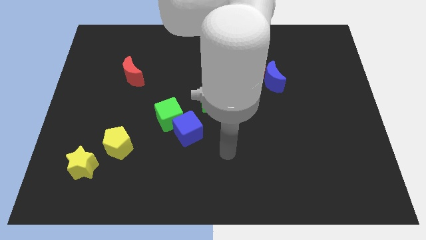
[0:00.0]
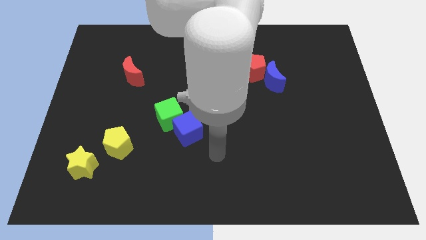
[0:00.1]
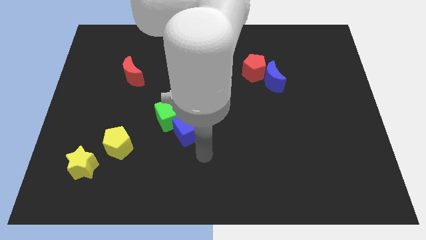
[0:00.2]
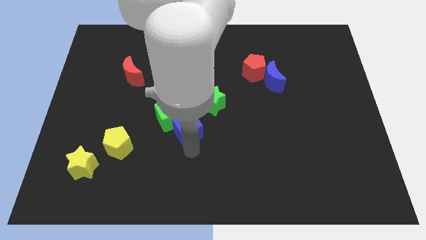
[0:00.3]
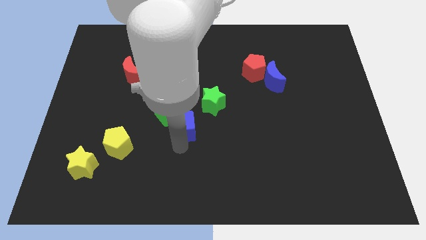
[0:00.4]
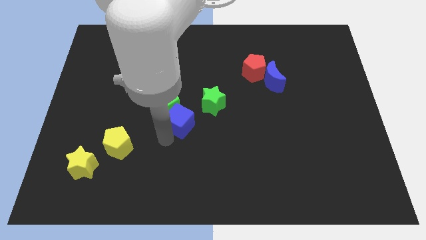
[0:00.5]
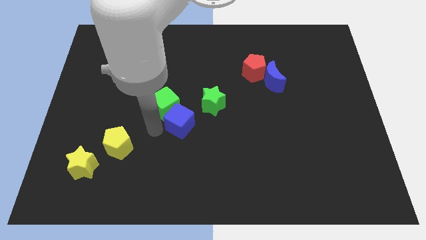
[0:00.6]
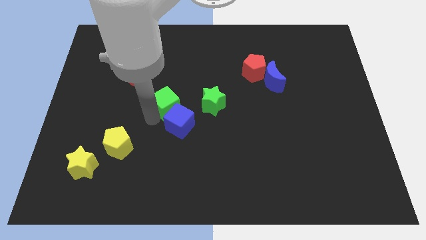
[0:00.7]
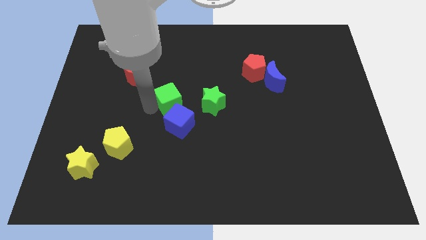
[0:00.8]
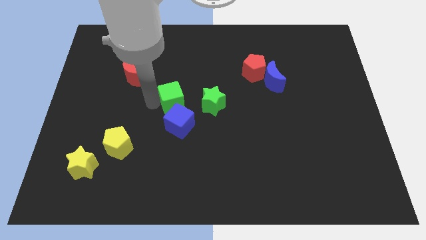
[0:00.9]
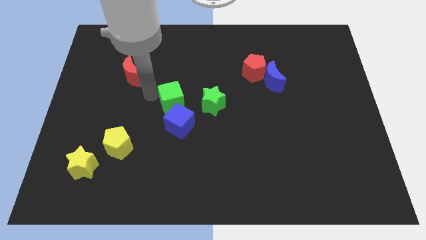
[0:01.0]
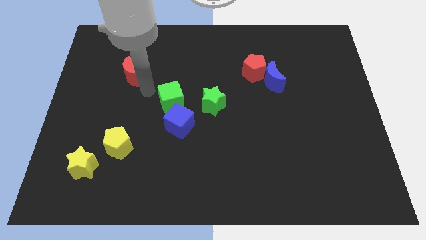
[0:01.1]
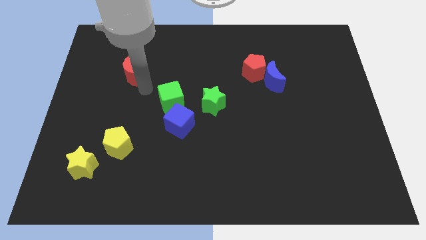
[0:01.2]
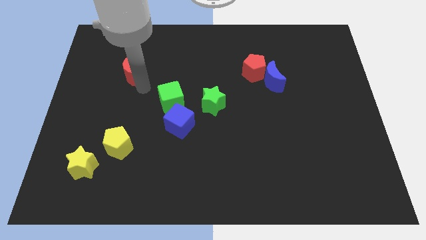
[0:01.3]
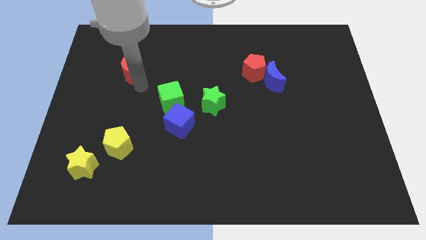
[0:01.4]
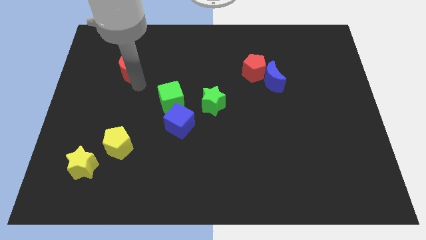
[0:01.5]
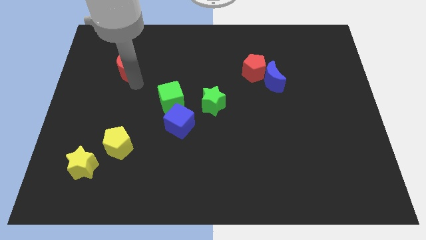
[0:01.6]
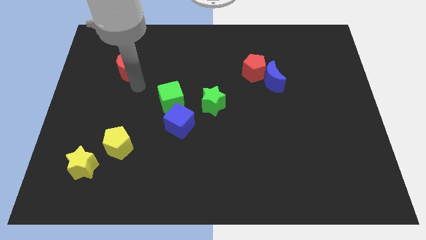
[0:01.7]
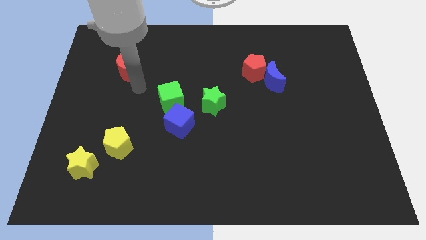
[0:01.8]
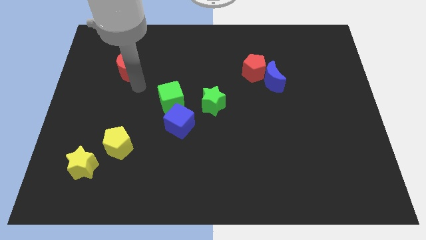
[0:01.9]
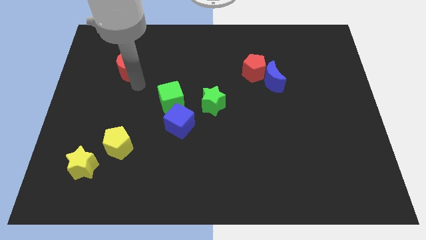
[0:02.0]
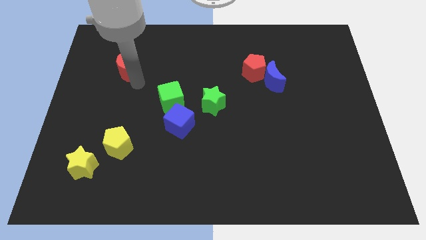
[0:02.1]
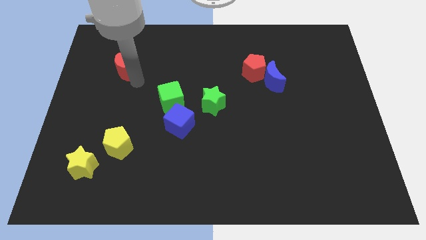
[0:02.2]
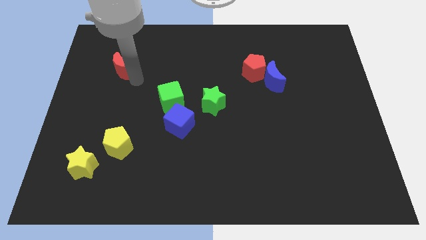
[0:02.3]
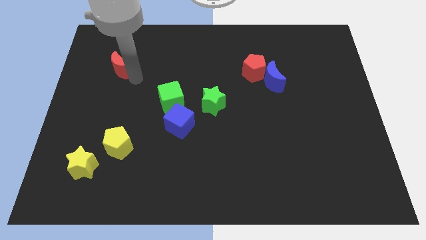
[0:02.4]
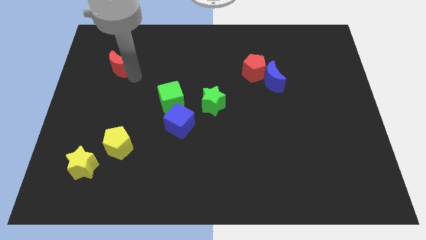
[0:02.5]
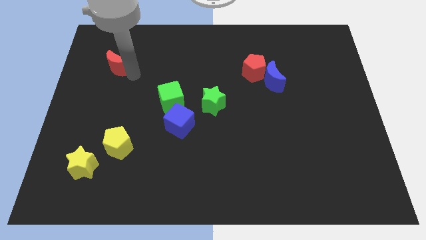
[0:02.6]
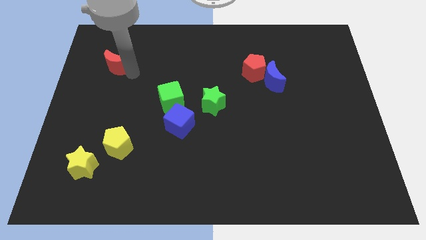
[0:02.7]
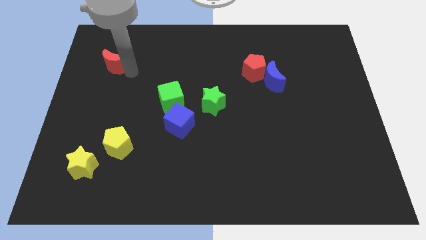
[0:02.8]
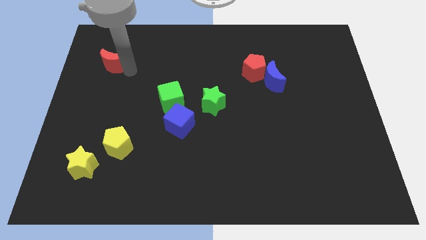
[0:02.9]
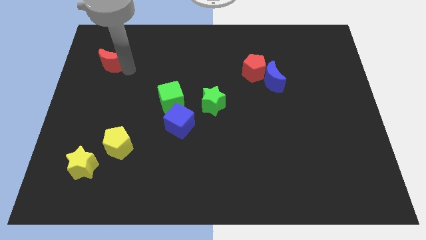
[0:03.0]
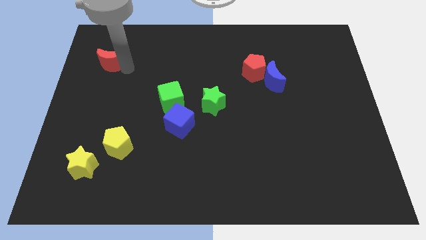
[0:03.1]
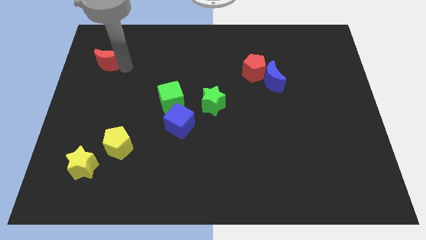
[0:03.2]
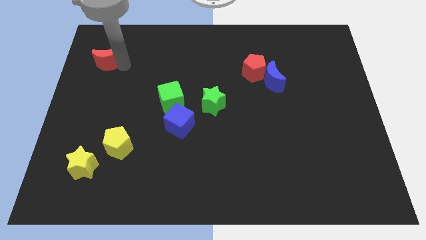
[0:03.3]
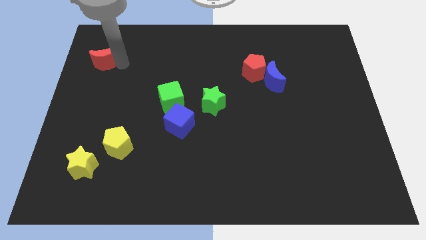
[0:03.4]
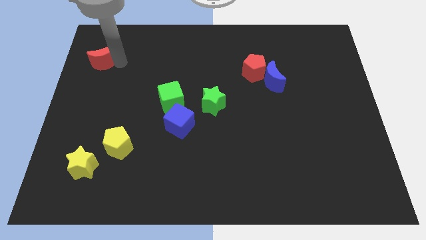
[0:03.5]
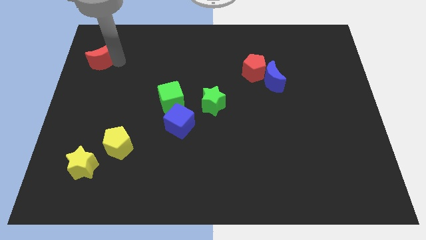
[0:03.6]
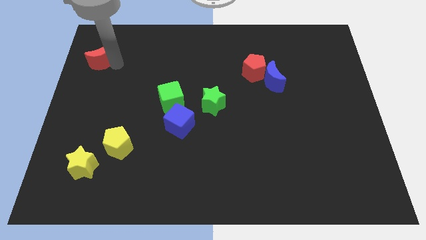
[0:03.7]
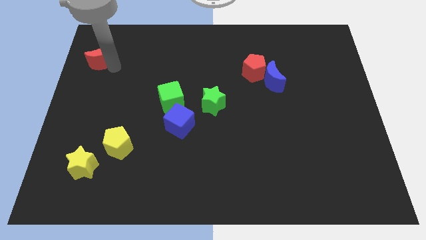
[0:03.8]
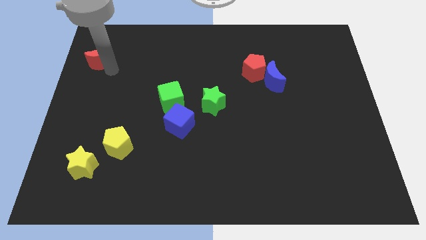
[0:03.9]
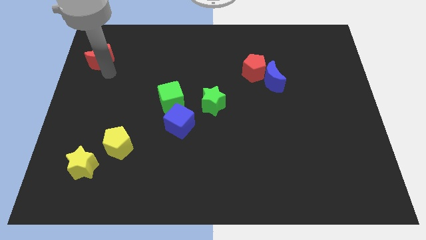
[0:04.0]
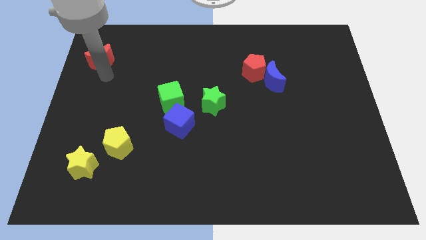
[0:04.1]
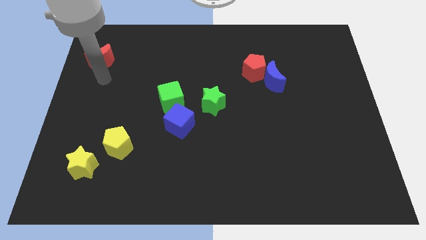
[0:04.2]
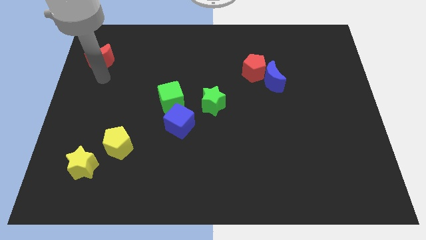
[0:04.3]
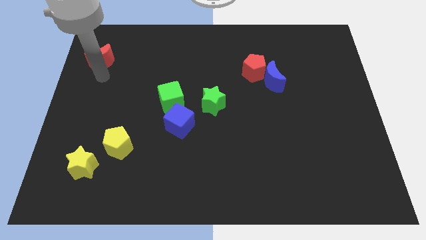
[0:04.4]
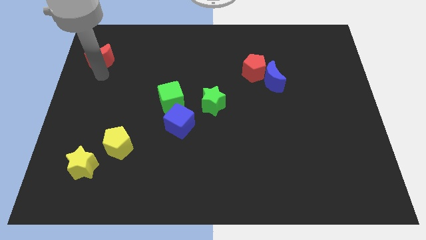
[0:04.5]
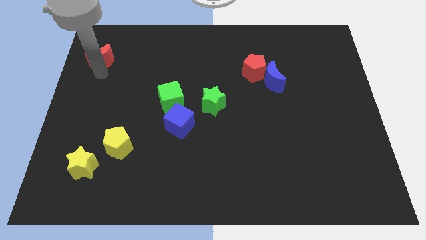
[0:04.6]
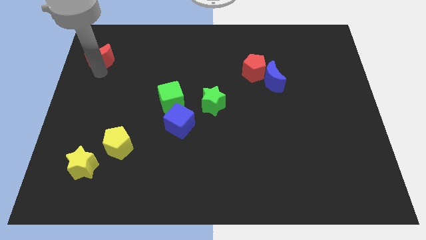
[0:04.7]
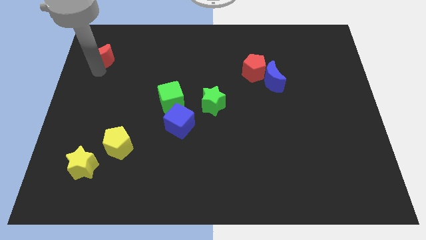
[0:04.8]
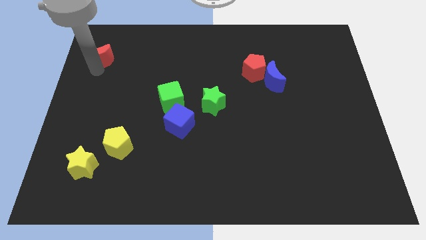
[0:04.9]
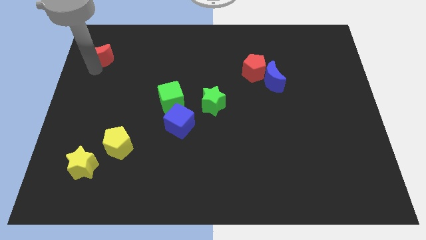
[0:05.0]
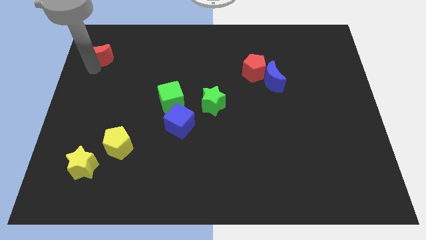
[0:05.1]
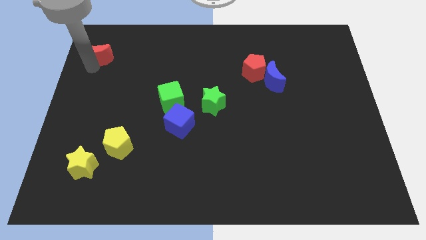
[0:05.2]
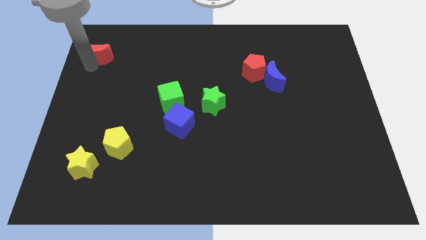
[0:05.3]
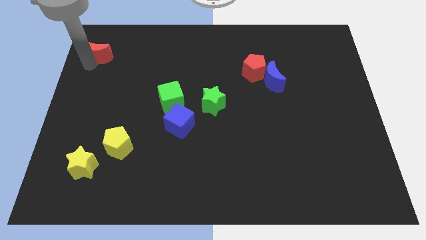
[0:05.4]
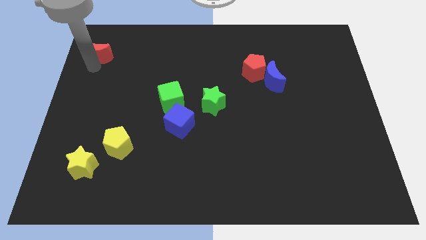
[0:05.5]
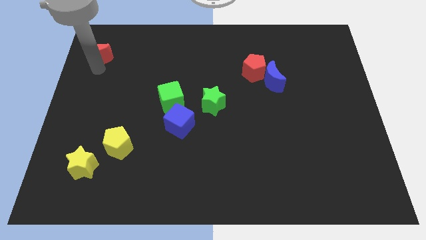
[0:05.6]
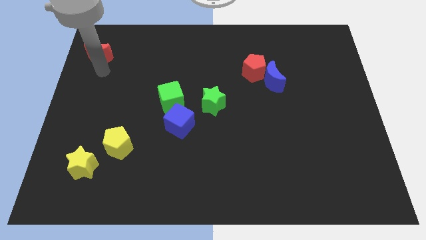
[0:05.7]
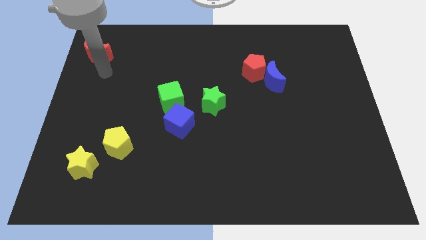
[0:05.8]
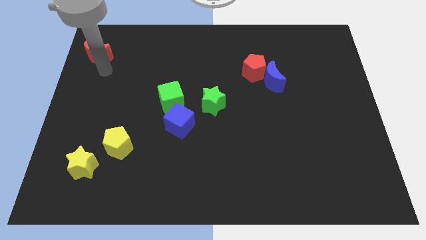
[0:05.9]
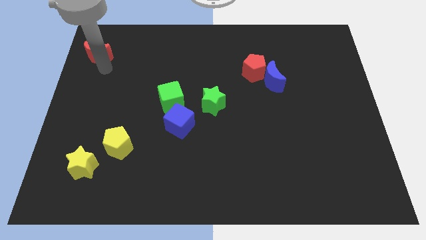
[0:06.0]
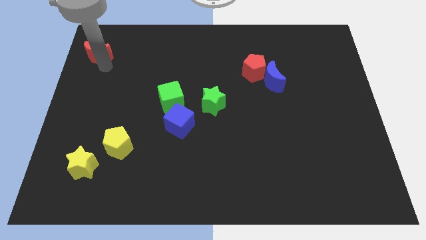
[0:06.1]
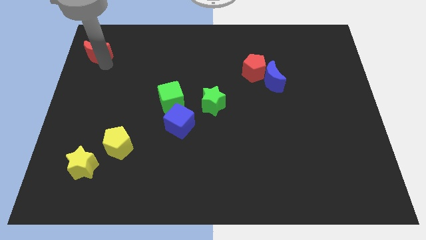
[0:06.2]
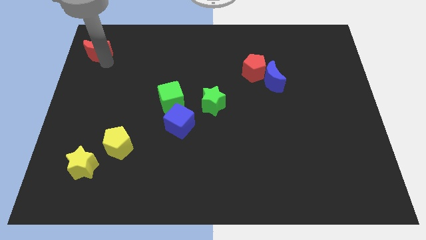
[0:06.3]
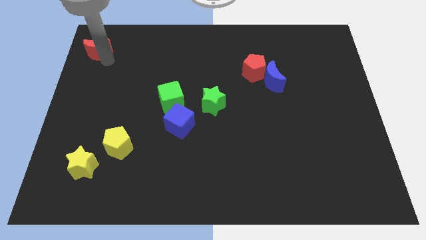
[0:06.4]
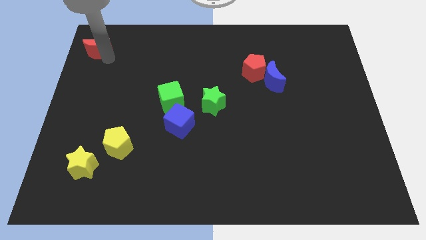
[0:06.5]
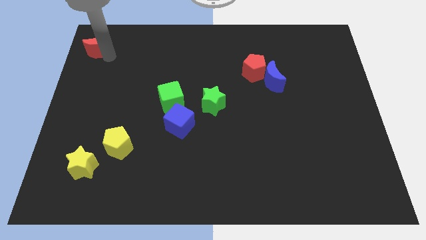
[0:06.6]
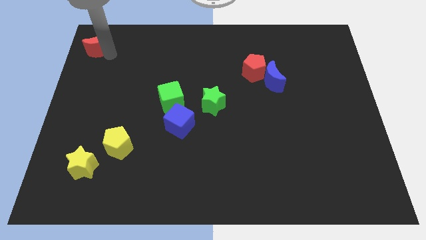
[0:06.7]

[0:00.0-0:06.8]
move the red moon to the top left corner

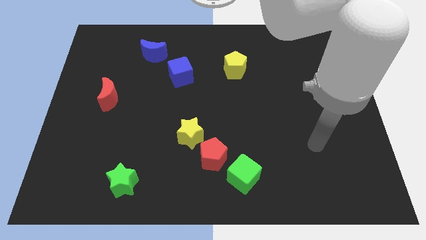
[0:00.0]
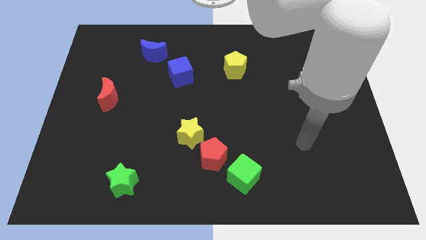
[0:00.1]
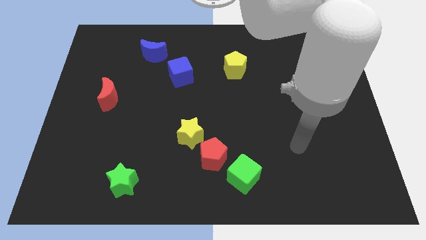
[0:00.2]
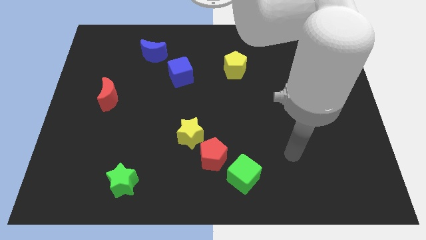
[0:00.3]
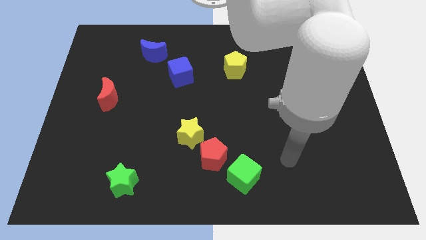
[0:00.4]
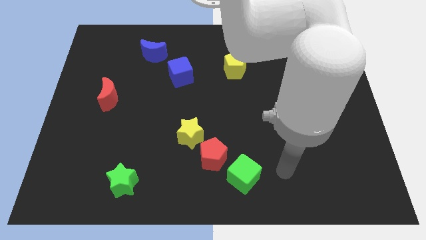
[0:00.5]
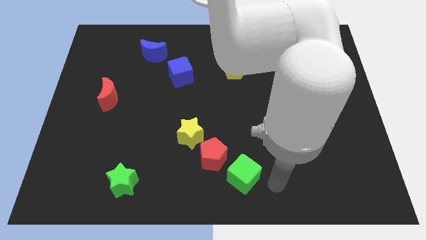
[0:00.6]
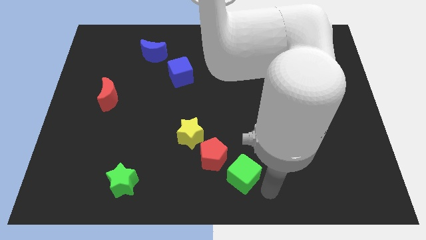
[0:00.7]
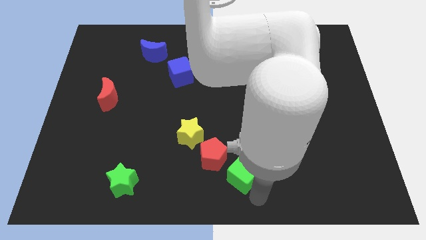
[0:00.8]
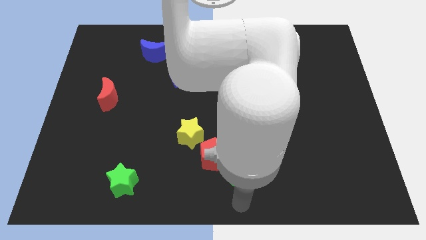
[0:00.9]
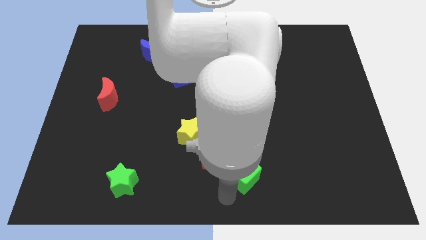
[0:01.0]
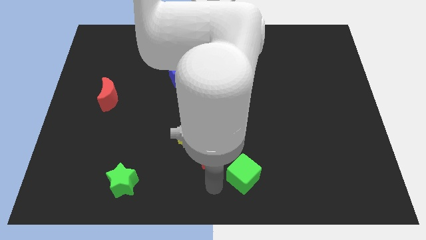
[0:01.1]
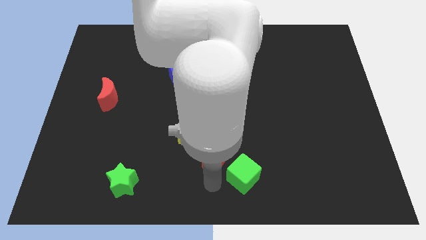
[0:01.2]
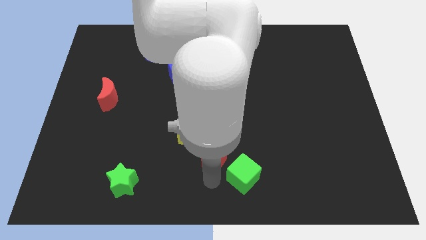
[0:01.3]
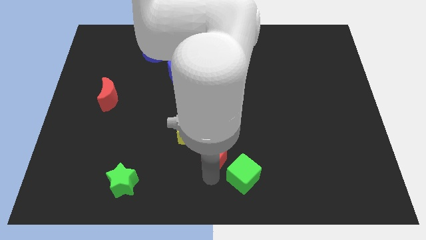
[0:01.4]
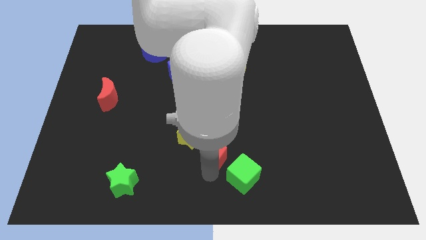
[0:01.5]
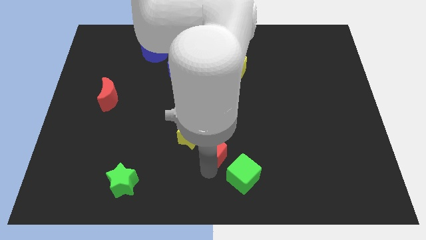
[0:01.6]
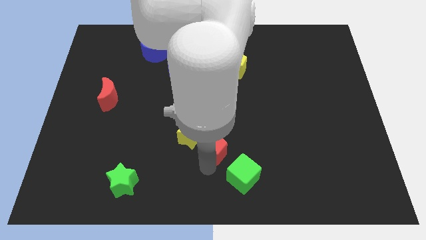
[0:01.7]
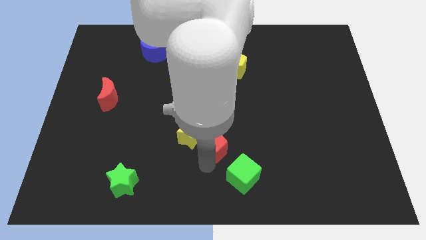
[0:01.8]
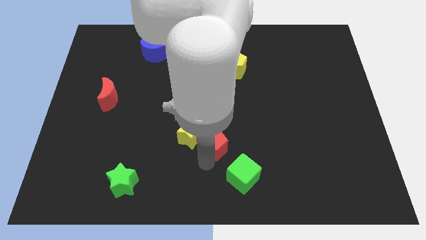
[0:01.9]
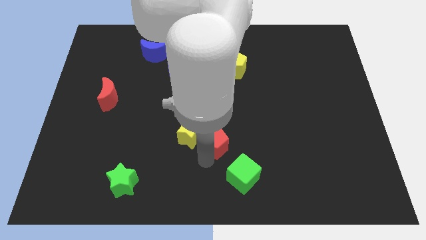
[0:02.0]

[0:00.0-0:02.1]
slide the red pentagon to the center
